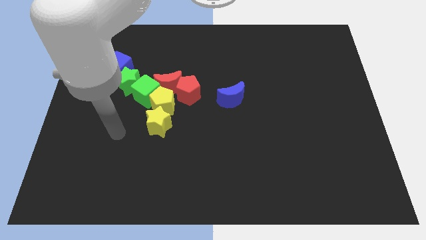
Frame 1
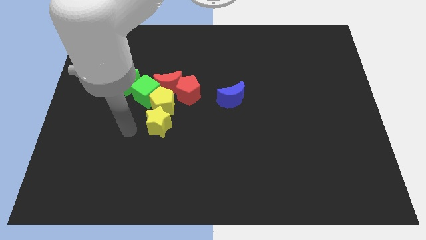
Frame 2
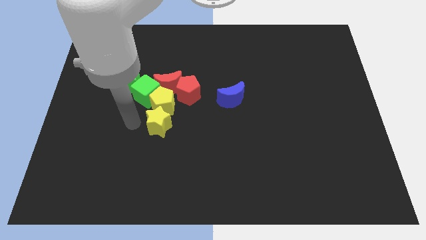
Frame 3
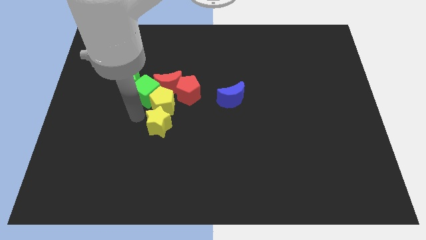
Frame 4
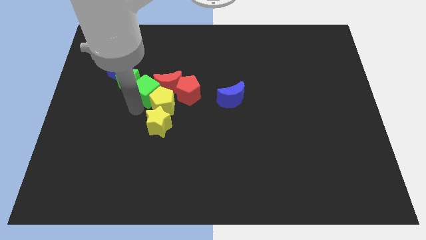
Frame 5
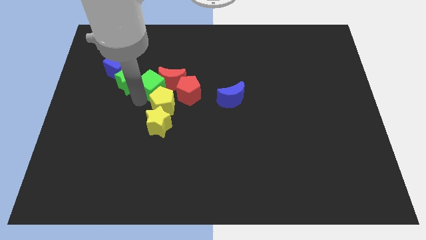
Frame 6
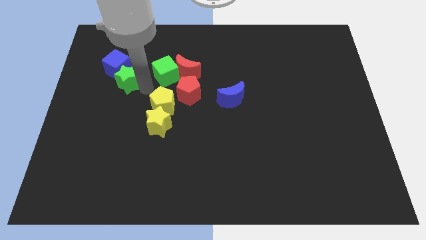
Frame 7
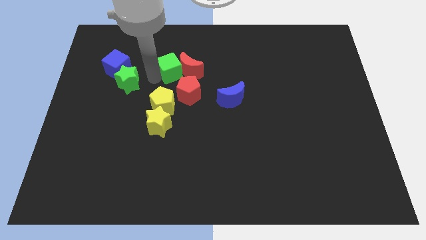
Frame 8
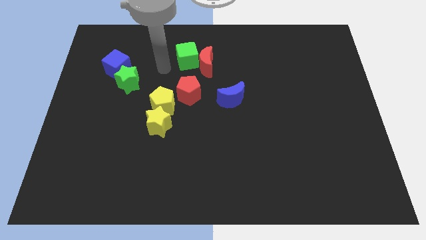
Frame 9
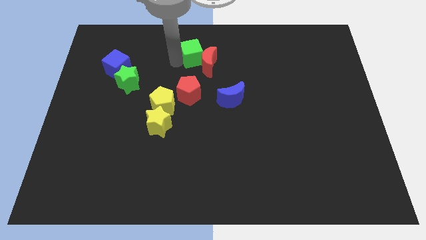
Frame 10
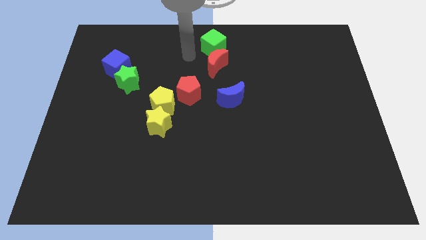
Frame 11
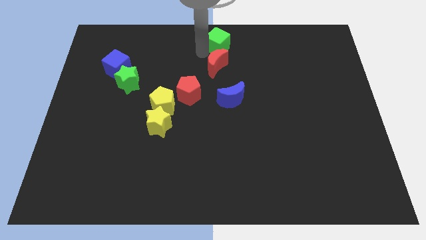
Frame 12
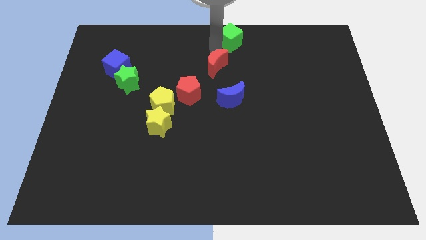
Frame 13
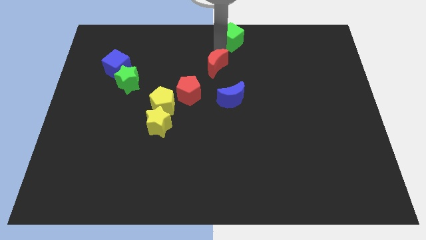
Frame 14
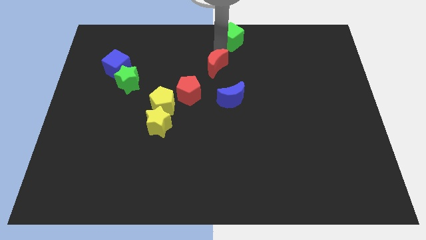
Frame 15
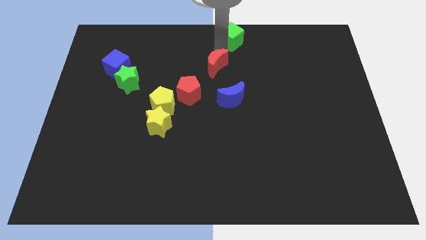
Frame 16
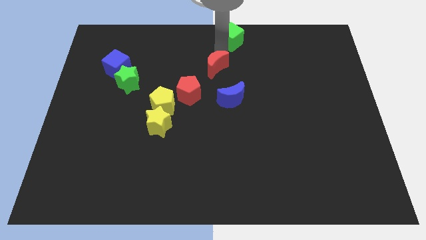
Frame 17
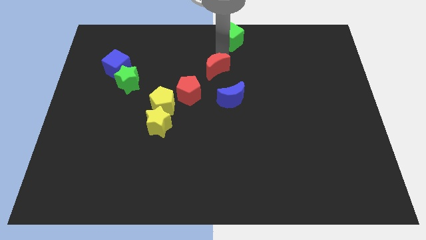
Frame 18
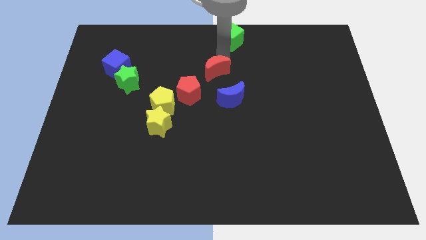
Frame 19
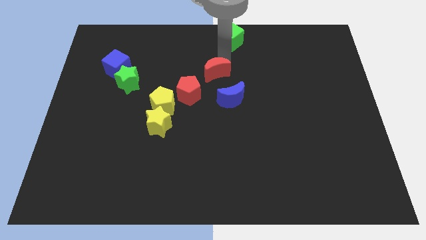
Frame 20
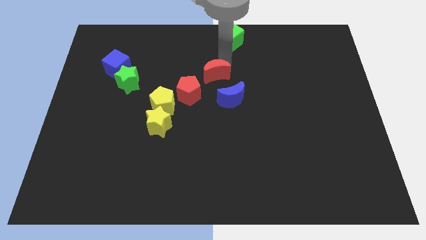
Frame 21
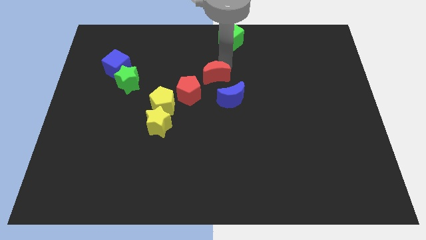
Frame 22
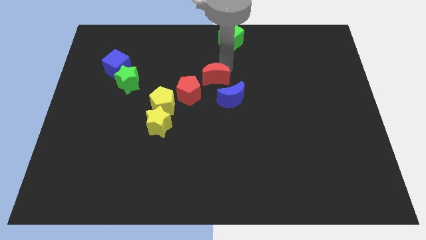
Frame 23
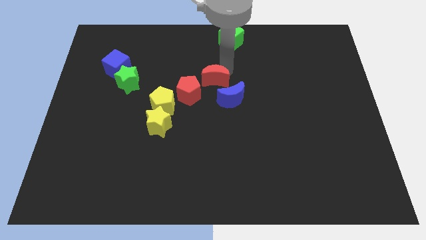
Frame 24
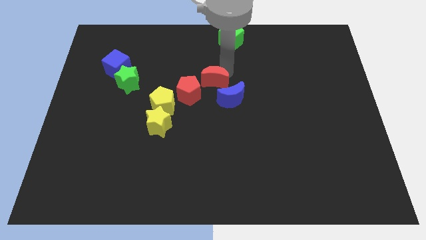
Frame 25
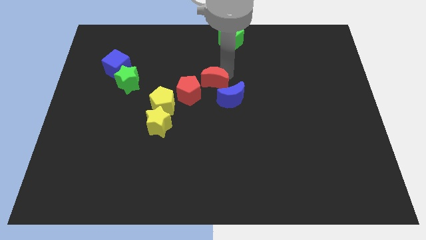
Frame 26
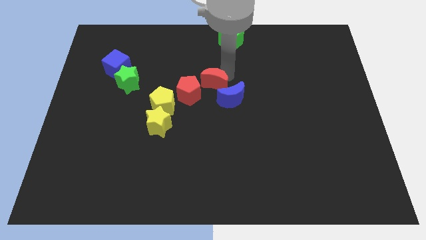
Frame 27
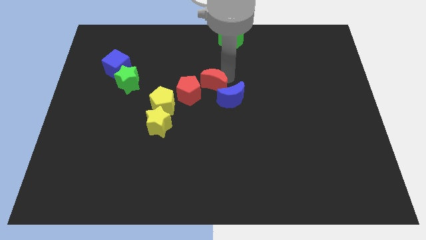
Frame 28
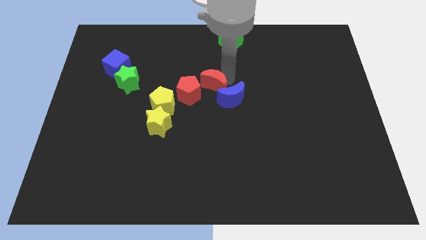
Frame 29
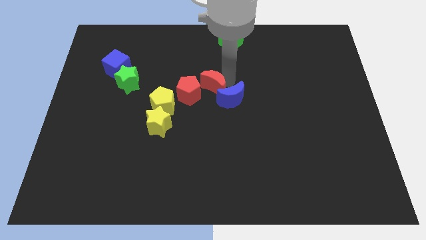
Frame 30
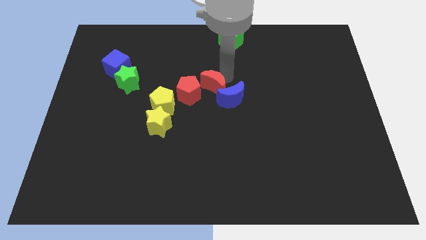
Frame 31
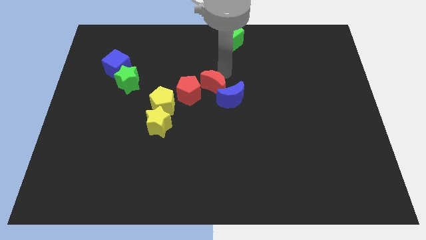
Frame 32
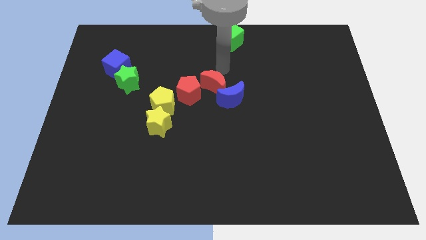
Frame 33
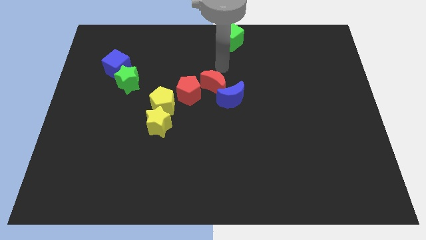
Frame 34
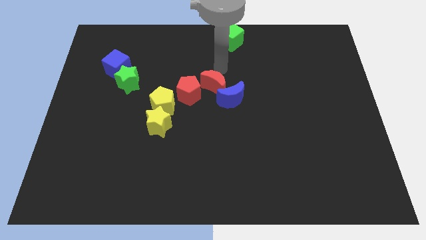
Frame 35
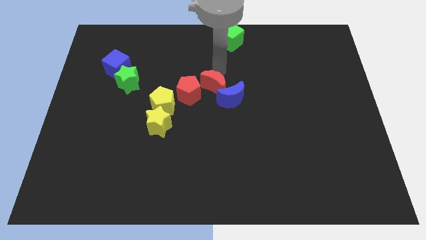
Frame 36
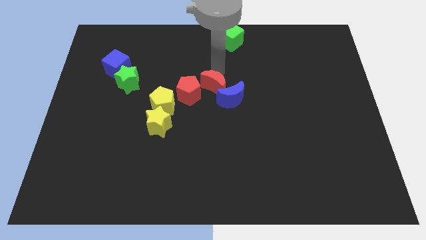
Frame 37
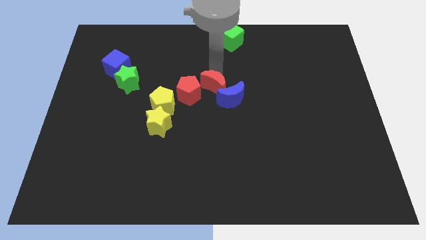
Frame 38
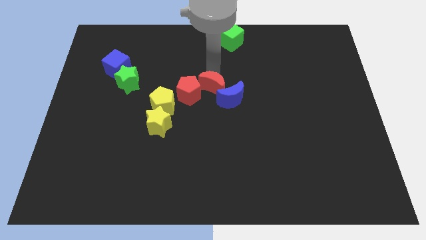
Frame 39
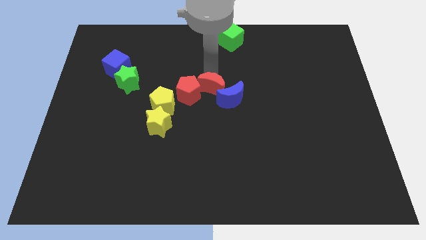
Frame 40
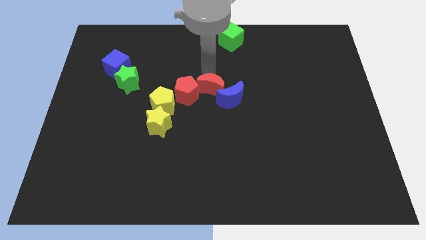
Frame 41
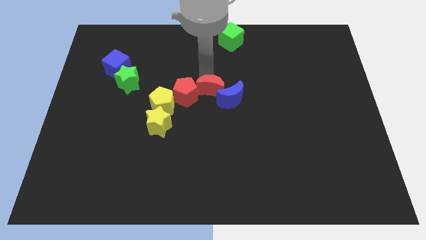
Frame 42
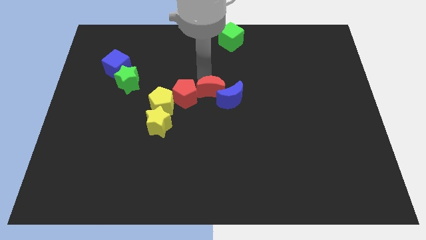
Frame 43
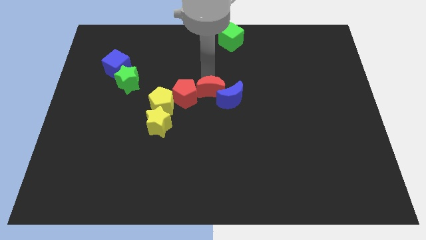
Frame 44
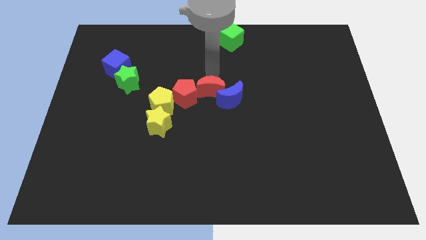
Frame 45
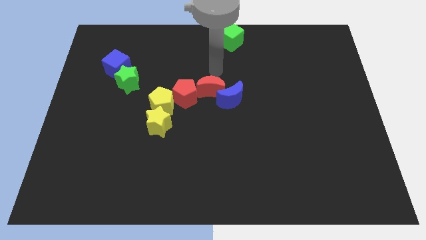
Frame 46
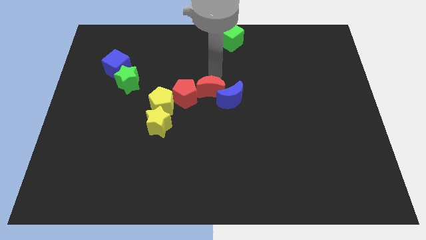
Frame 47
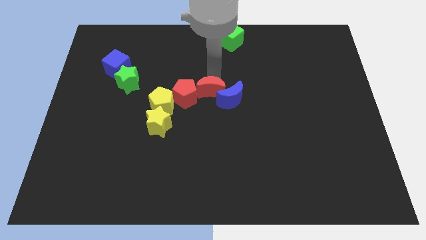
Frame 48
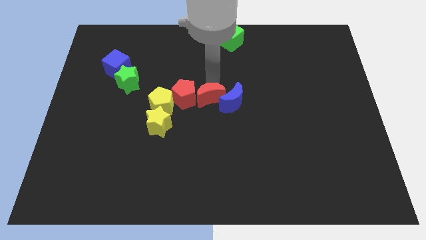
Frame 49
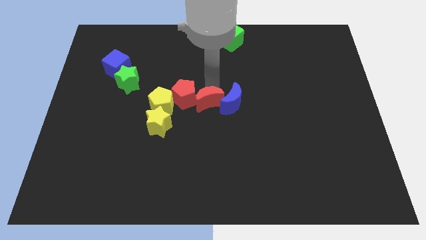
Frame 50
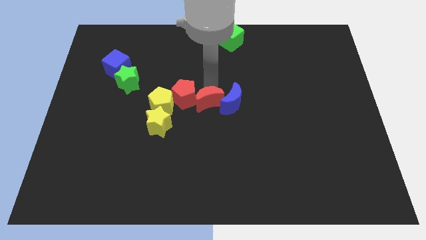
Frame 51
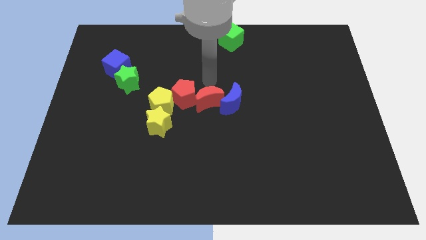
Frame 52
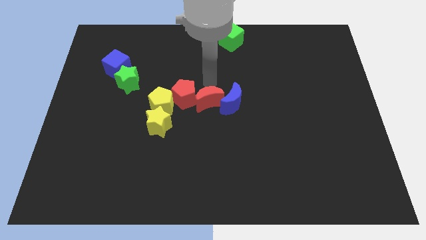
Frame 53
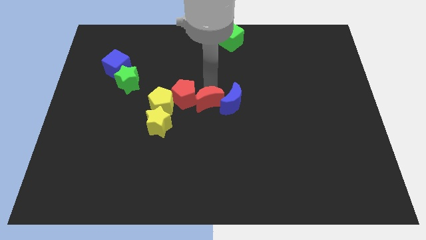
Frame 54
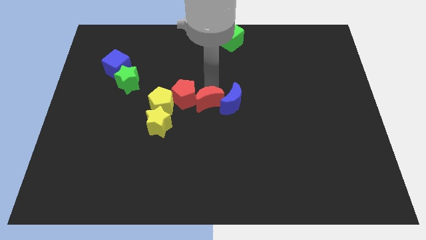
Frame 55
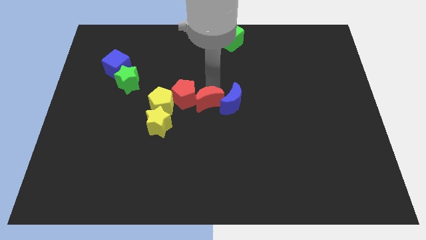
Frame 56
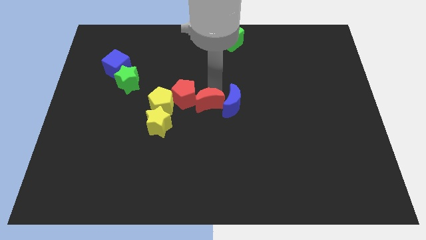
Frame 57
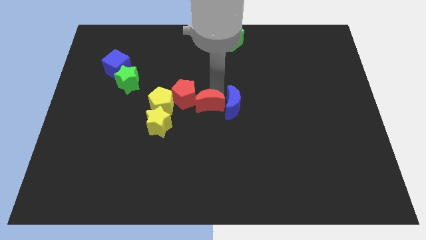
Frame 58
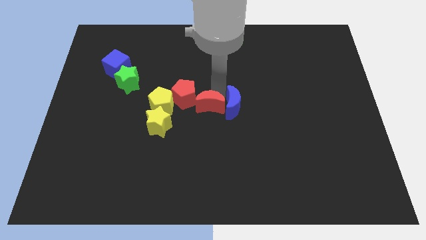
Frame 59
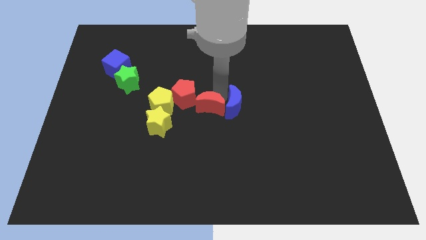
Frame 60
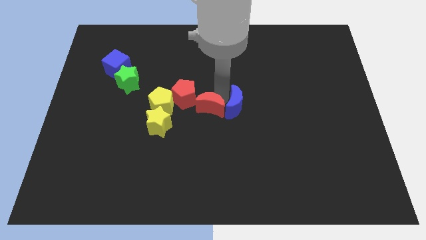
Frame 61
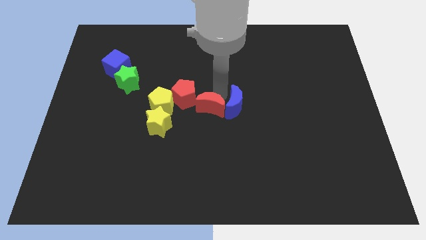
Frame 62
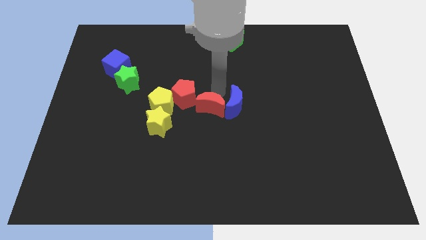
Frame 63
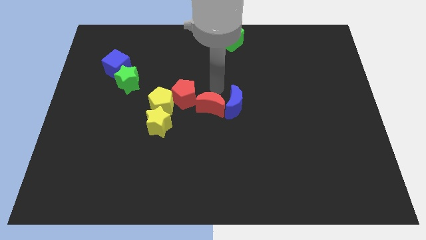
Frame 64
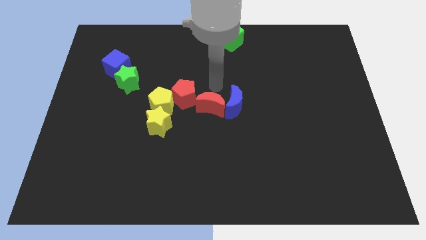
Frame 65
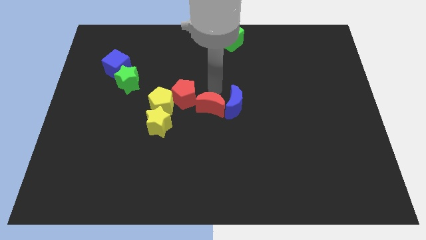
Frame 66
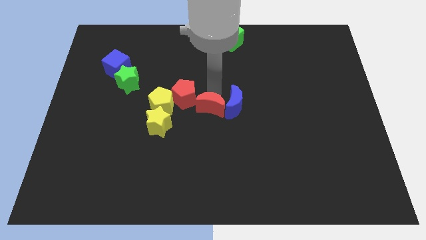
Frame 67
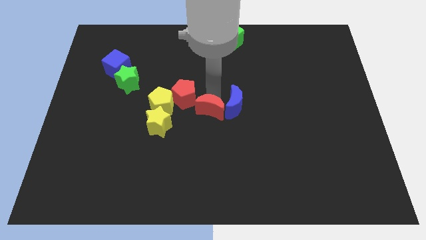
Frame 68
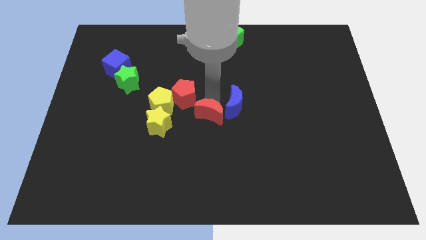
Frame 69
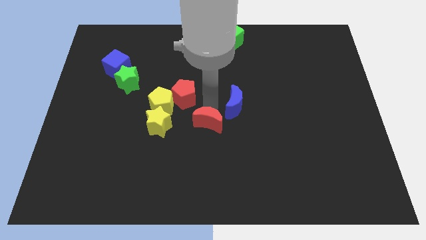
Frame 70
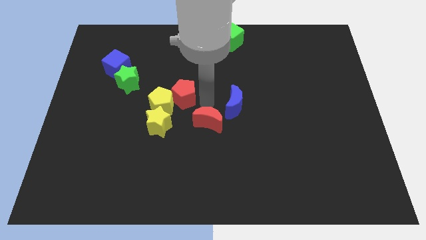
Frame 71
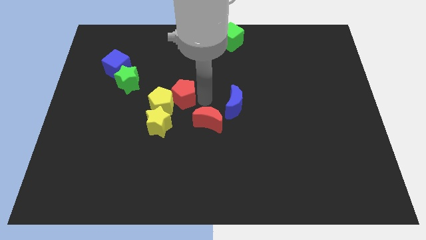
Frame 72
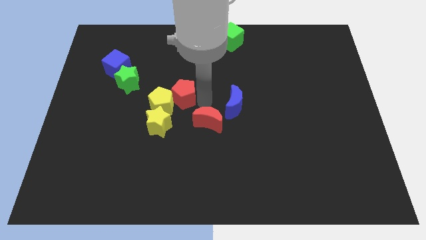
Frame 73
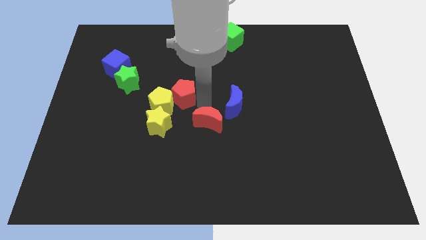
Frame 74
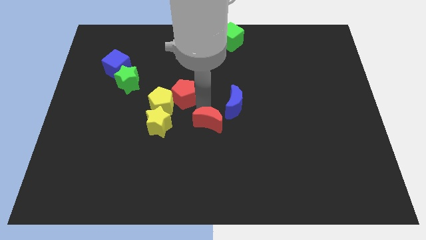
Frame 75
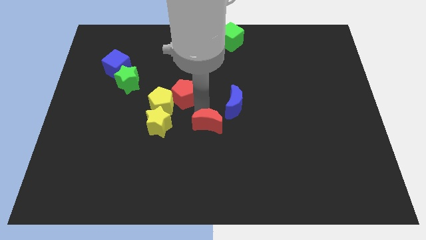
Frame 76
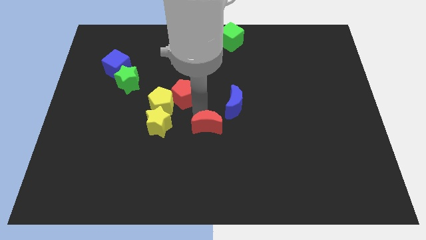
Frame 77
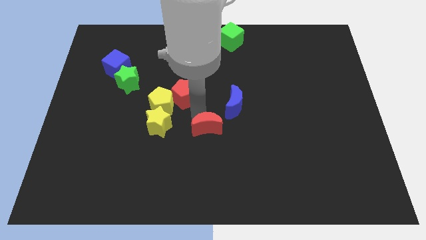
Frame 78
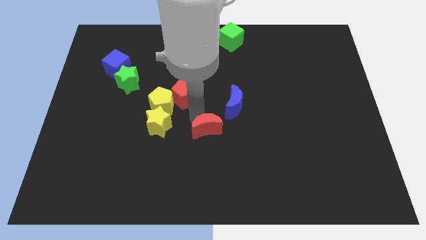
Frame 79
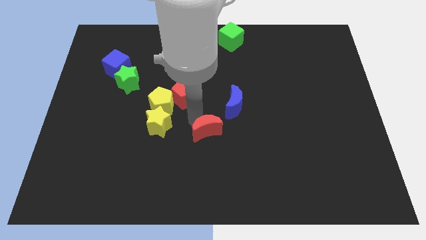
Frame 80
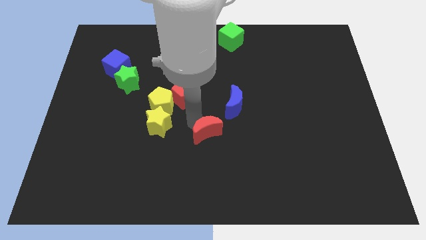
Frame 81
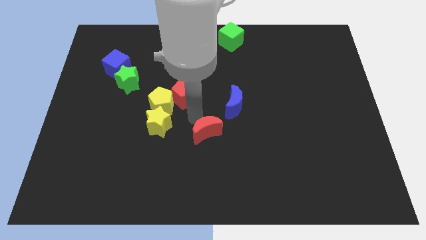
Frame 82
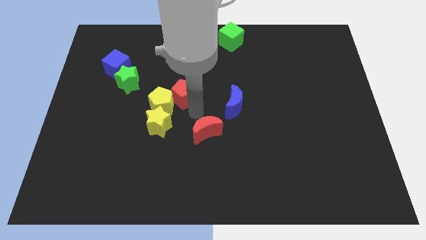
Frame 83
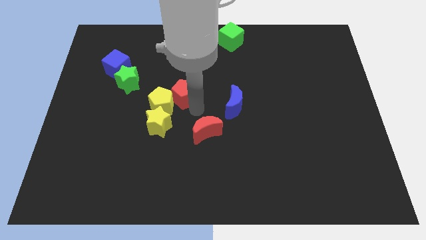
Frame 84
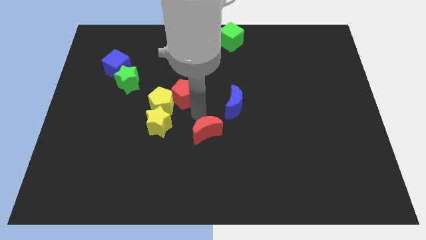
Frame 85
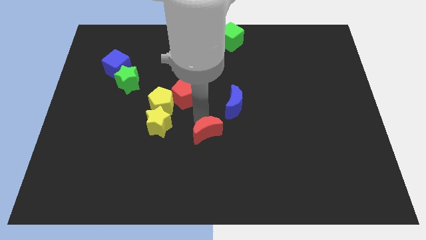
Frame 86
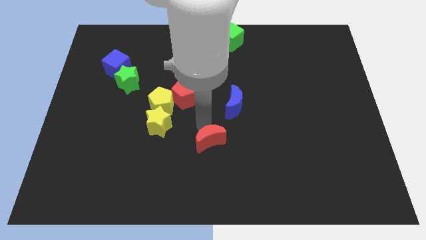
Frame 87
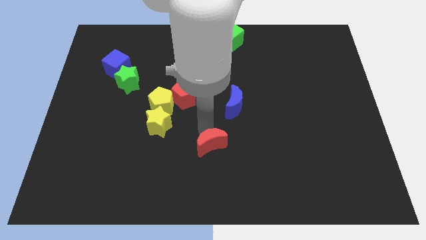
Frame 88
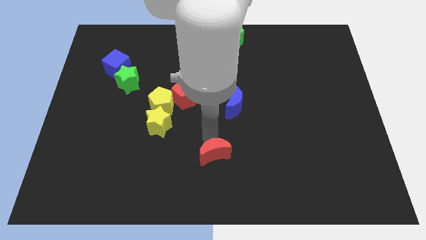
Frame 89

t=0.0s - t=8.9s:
slide the red moon to the bottom
